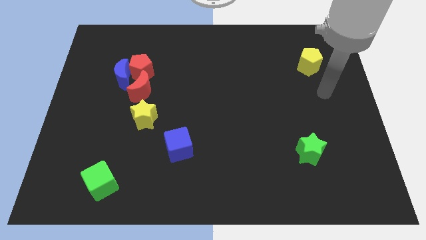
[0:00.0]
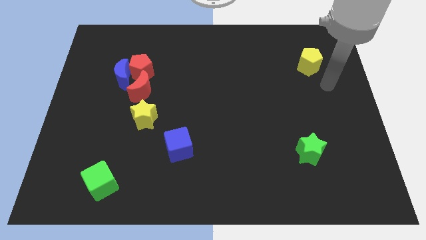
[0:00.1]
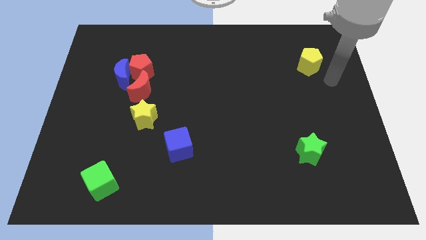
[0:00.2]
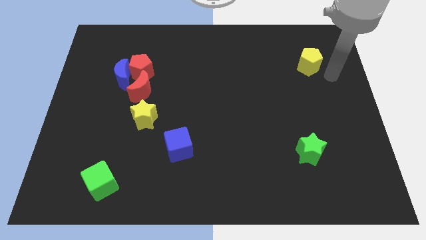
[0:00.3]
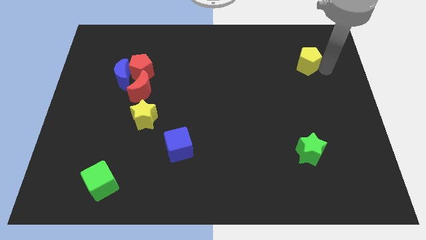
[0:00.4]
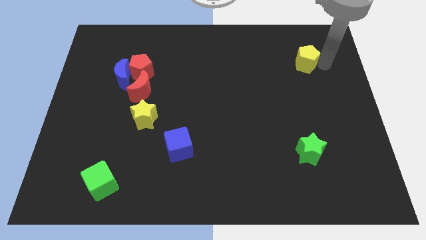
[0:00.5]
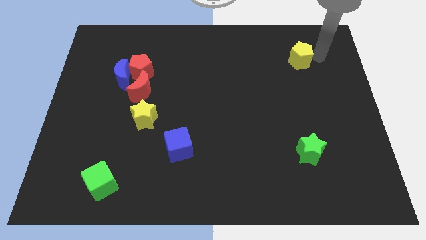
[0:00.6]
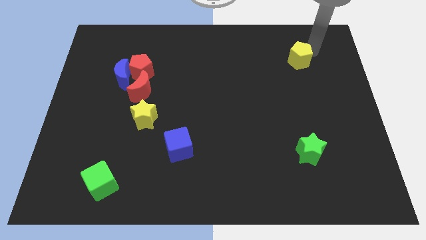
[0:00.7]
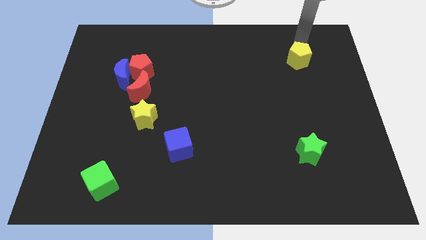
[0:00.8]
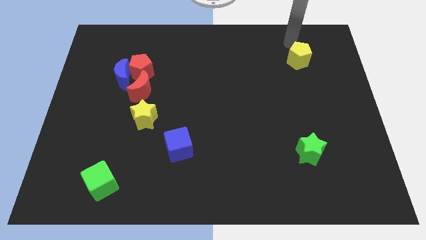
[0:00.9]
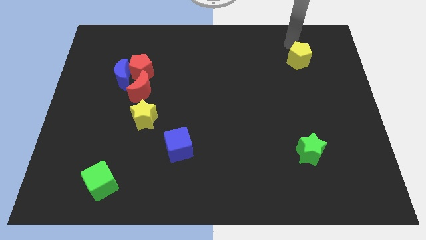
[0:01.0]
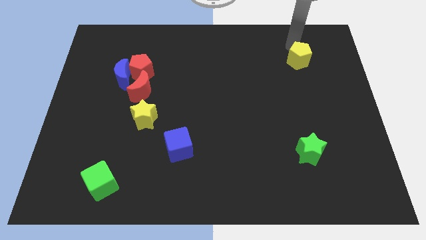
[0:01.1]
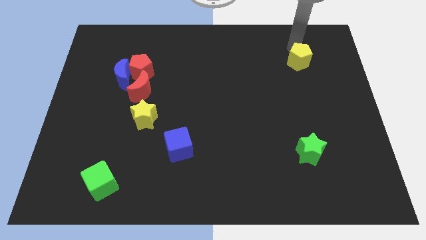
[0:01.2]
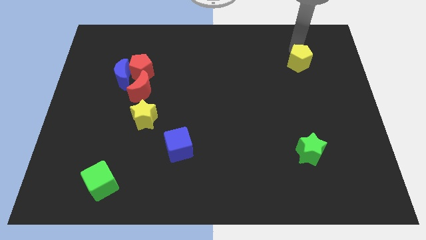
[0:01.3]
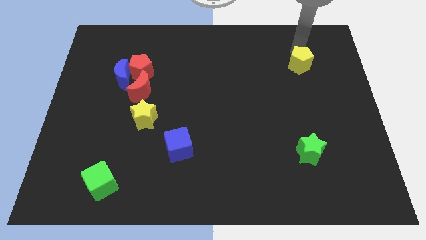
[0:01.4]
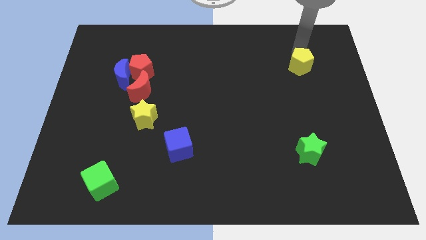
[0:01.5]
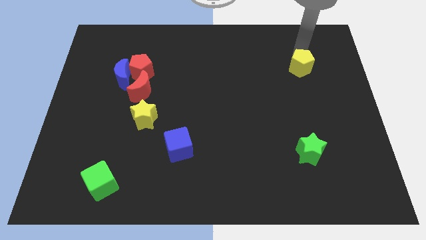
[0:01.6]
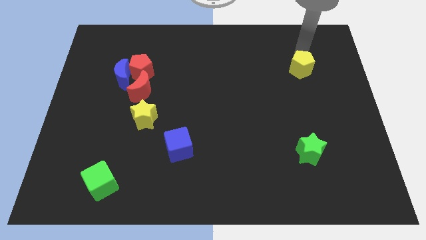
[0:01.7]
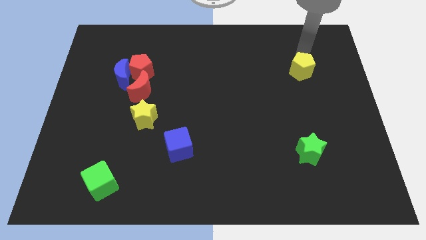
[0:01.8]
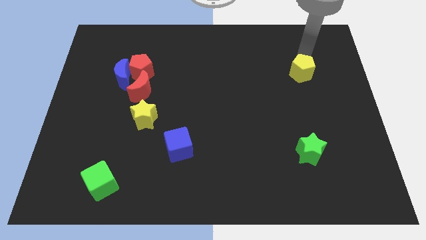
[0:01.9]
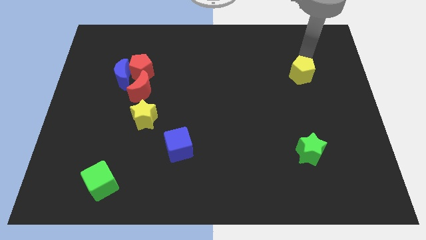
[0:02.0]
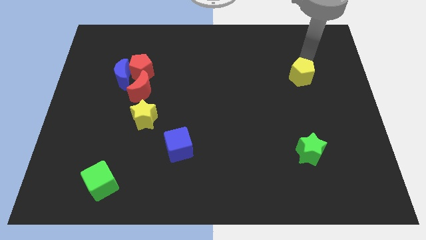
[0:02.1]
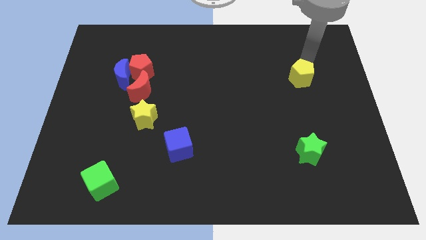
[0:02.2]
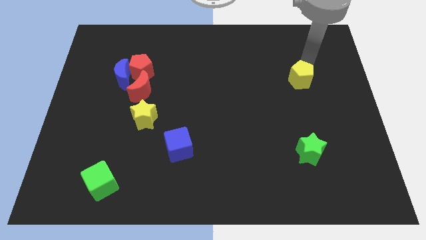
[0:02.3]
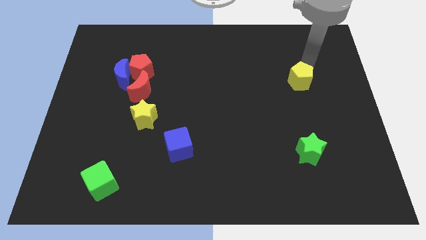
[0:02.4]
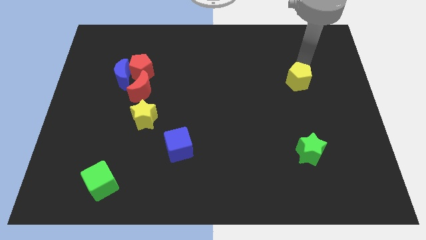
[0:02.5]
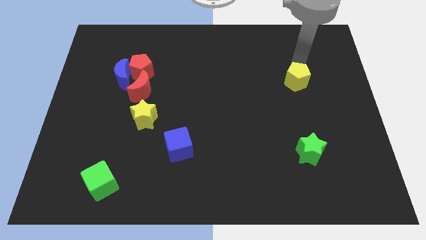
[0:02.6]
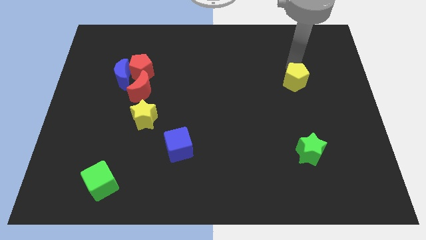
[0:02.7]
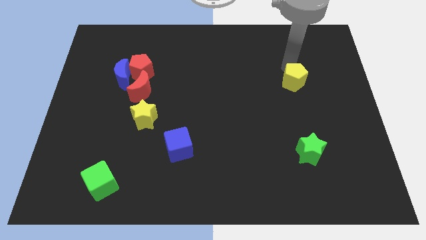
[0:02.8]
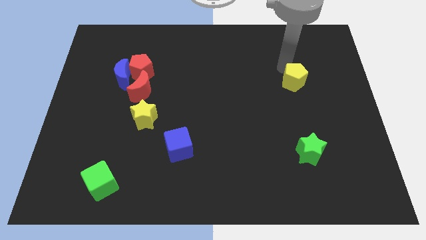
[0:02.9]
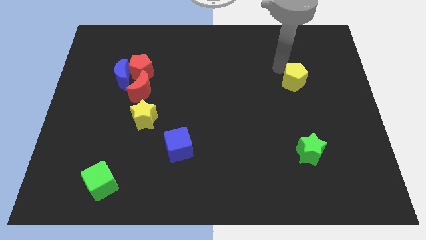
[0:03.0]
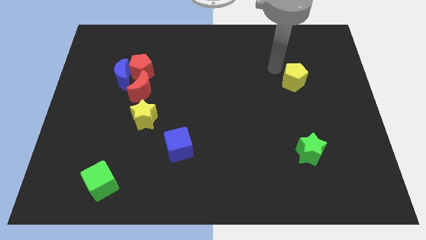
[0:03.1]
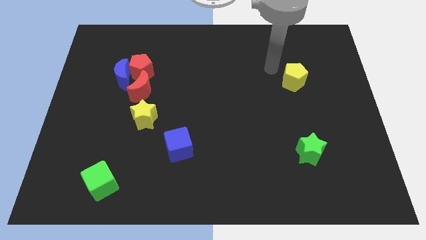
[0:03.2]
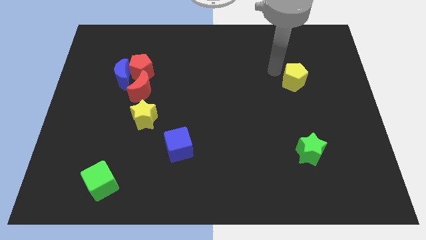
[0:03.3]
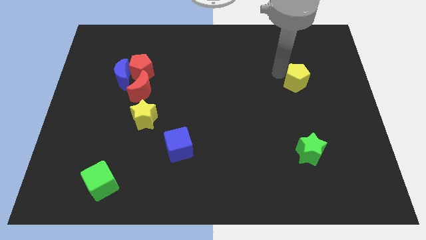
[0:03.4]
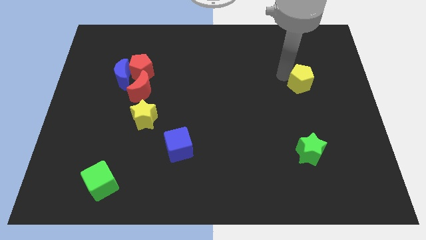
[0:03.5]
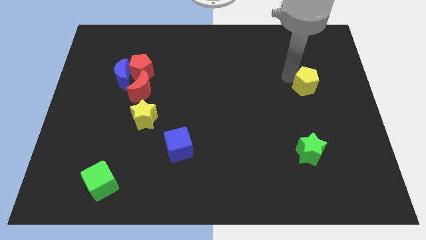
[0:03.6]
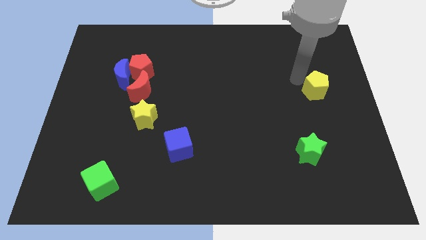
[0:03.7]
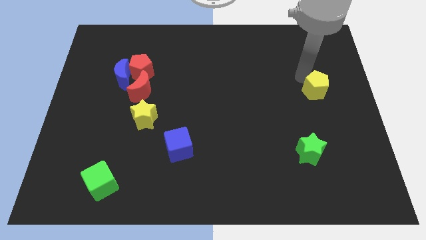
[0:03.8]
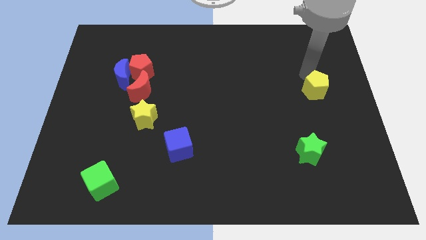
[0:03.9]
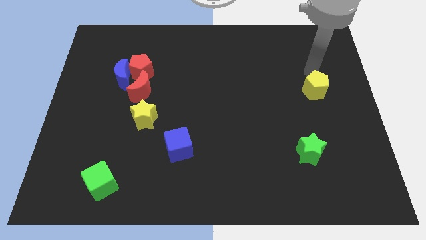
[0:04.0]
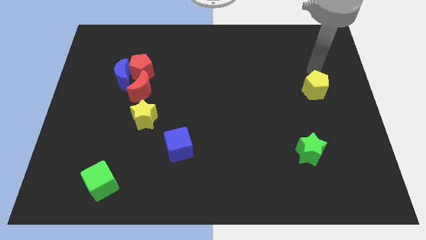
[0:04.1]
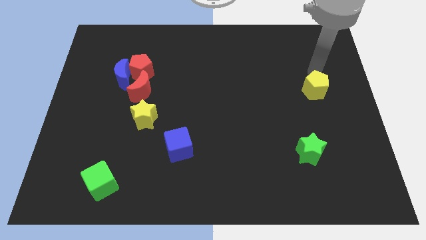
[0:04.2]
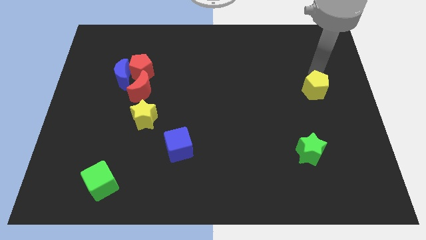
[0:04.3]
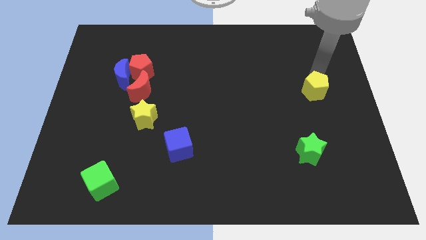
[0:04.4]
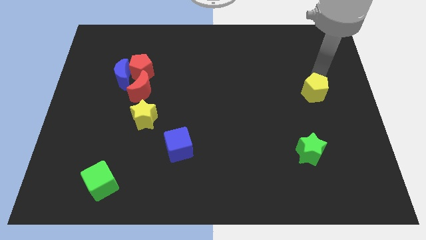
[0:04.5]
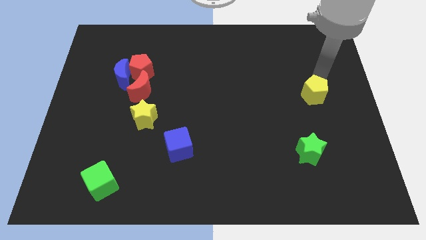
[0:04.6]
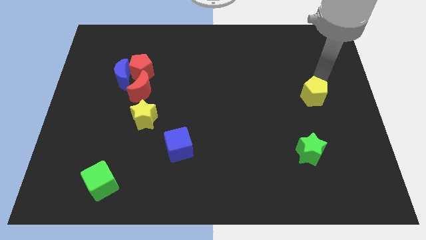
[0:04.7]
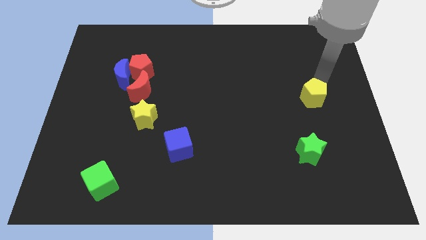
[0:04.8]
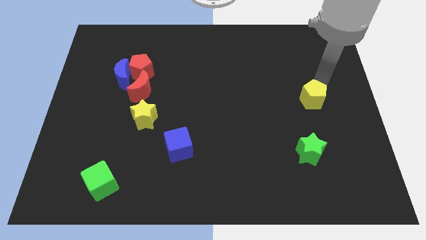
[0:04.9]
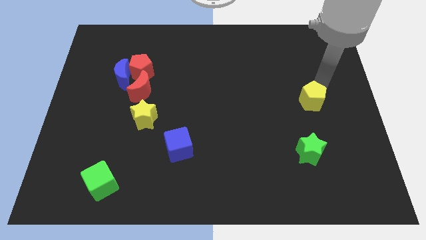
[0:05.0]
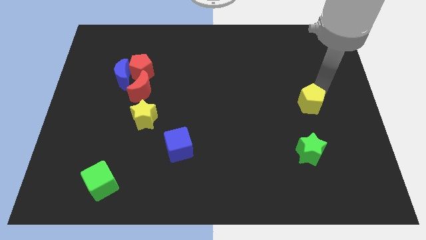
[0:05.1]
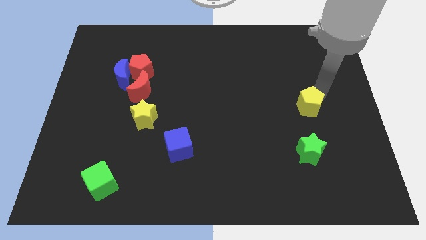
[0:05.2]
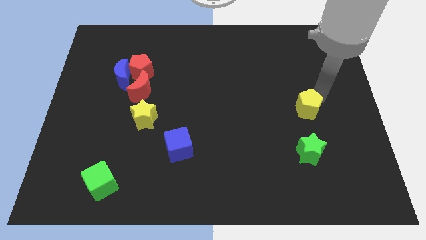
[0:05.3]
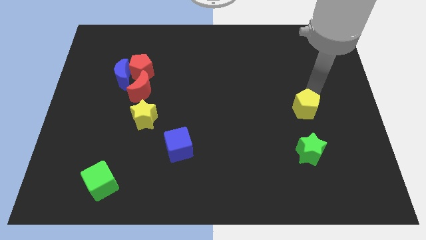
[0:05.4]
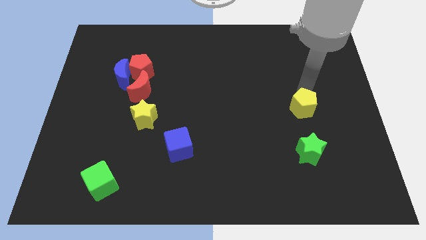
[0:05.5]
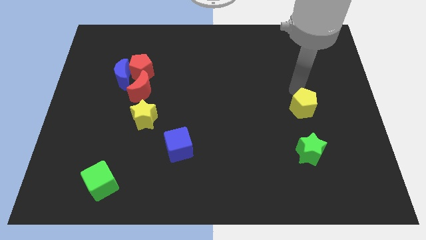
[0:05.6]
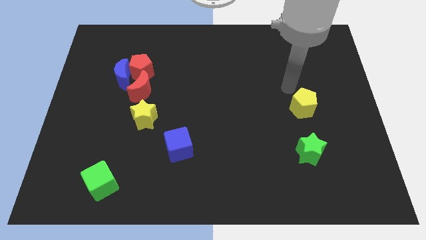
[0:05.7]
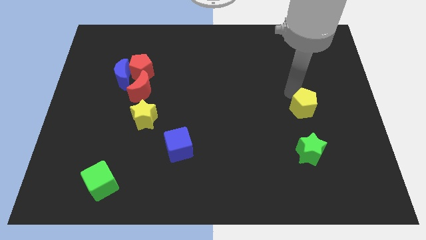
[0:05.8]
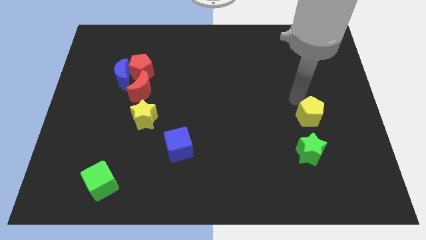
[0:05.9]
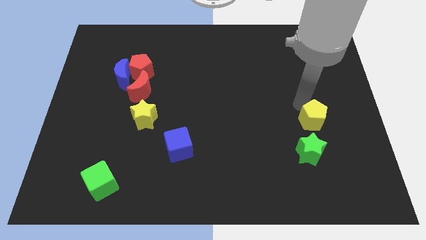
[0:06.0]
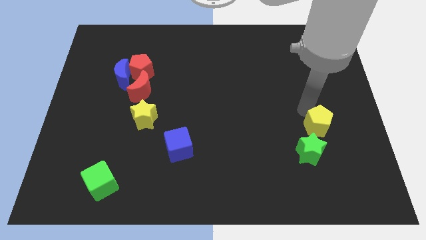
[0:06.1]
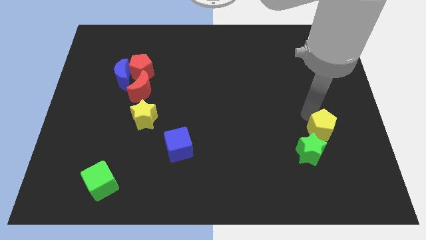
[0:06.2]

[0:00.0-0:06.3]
push the yellow pentagon downwards

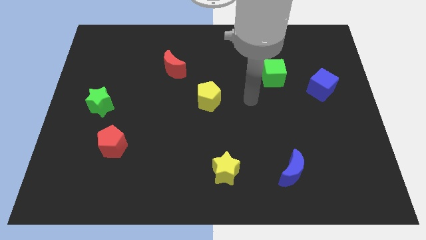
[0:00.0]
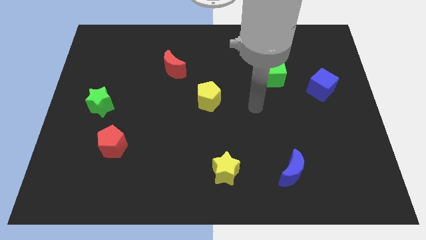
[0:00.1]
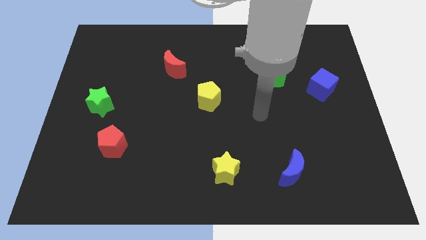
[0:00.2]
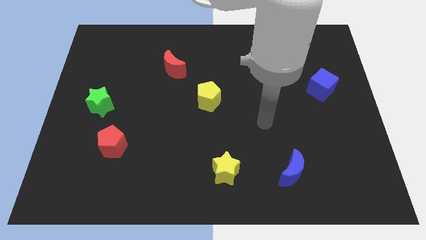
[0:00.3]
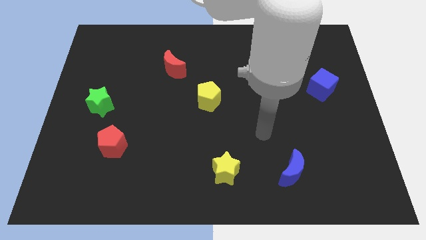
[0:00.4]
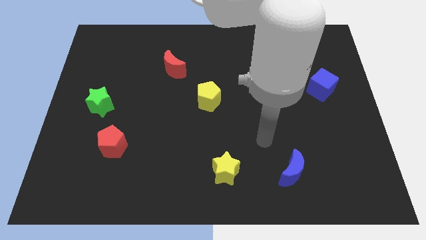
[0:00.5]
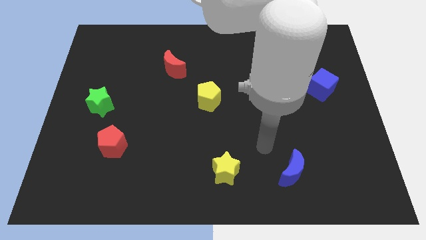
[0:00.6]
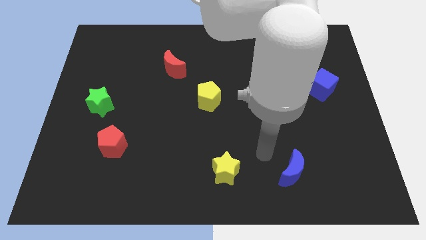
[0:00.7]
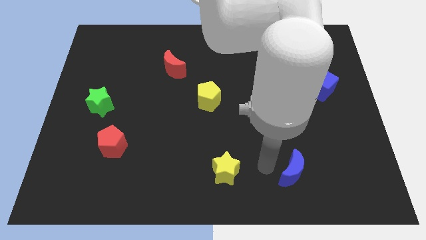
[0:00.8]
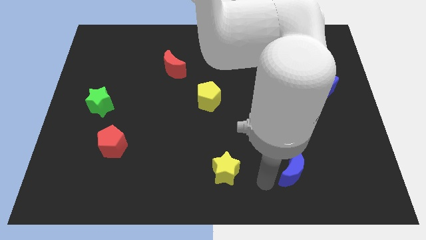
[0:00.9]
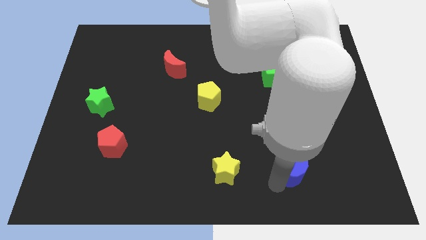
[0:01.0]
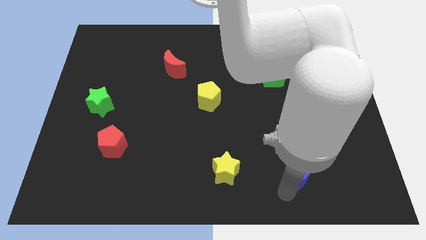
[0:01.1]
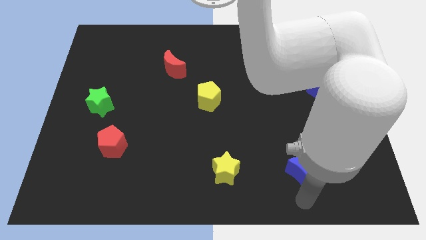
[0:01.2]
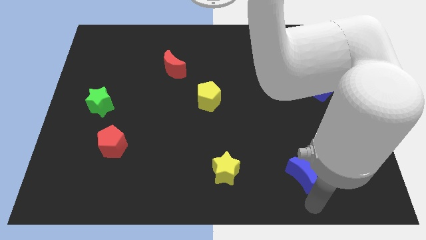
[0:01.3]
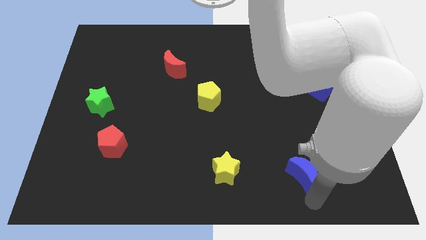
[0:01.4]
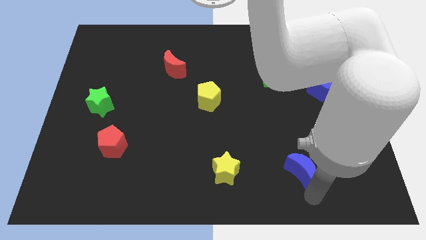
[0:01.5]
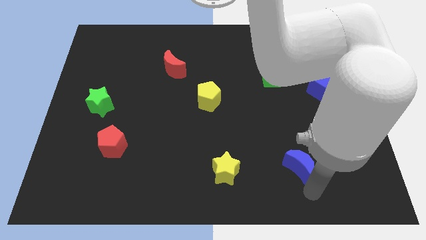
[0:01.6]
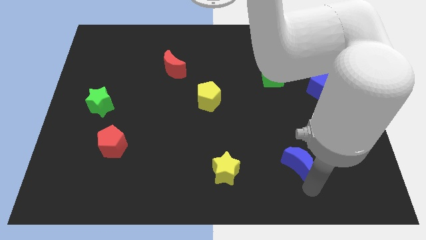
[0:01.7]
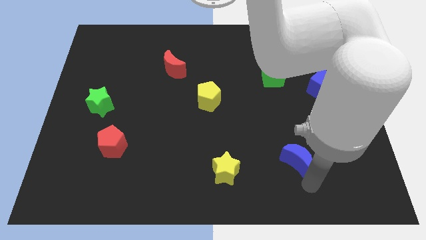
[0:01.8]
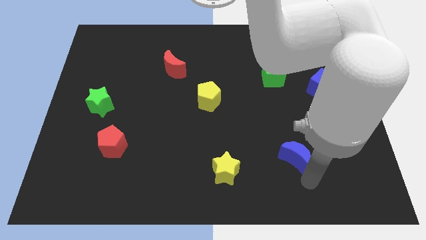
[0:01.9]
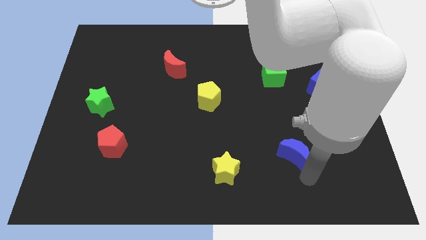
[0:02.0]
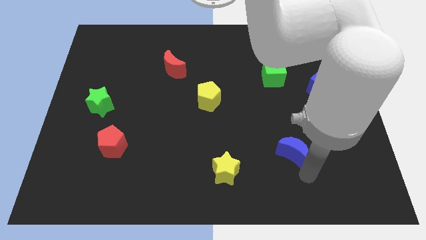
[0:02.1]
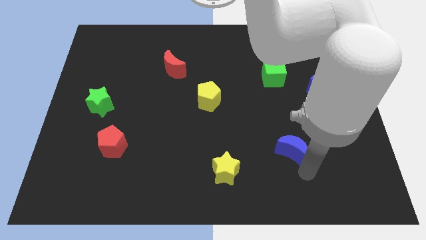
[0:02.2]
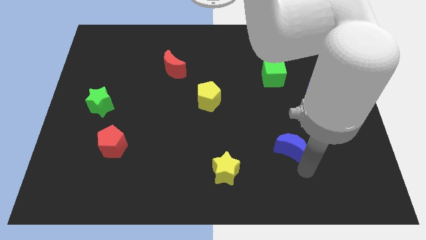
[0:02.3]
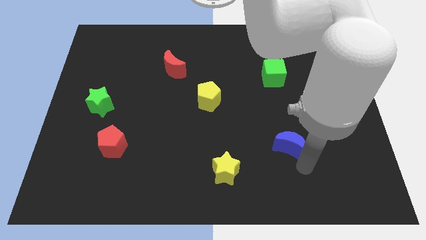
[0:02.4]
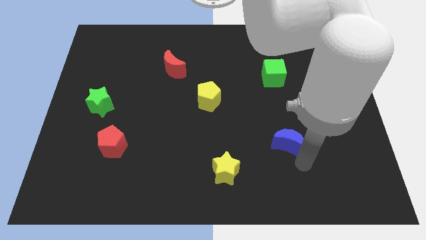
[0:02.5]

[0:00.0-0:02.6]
push the blue moon a little bit upwards
